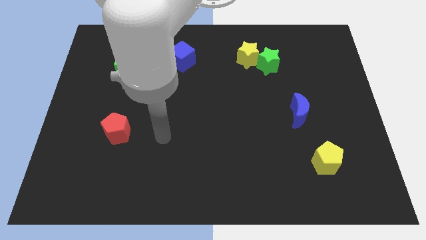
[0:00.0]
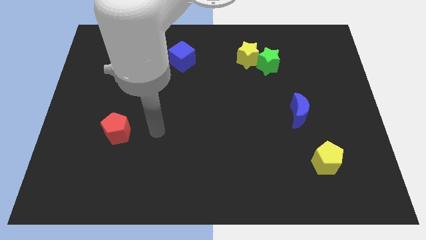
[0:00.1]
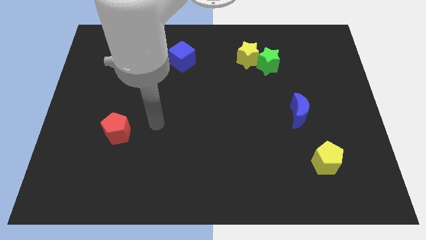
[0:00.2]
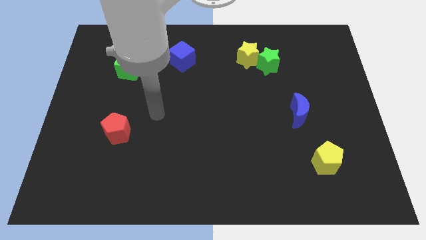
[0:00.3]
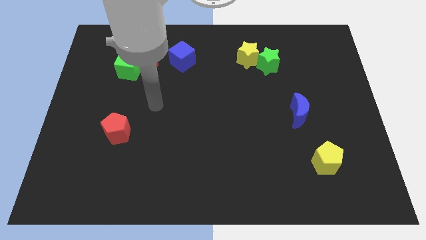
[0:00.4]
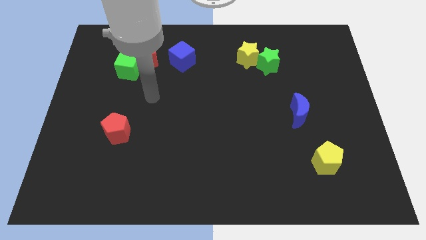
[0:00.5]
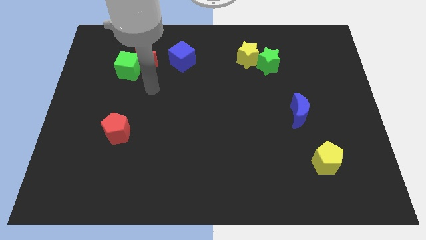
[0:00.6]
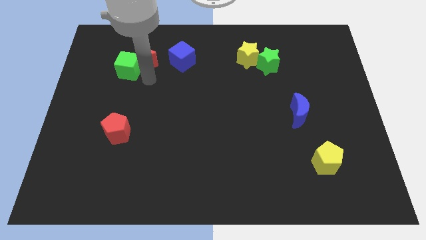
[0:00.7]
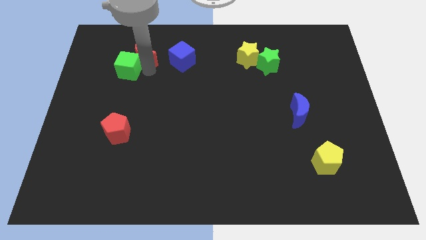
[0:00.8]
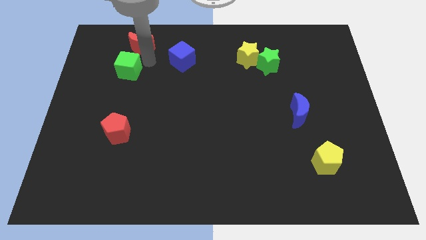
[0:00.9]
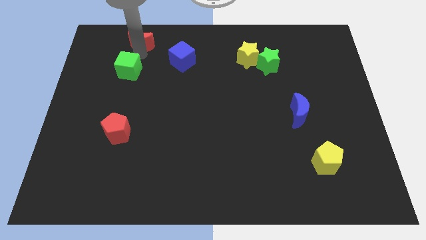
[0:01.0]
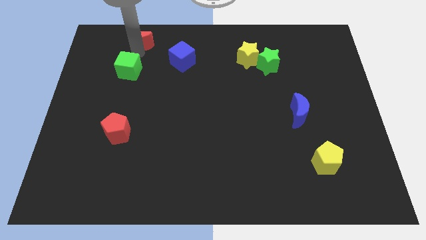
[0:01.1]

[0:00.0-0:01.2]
separate the green cube from the red moon

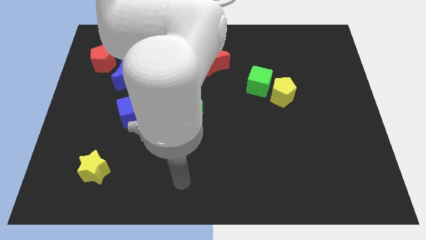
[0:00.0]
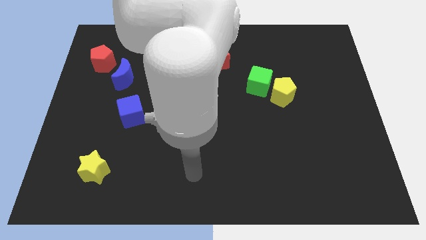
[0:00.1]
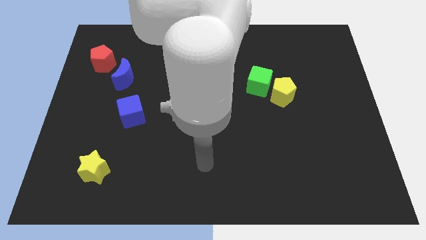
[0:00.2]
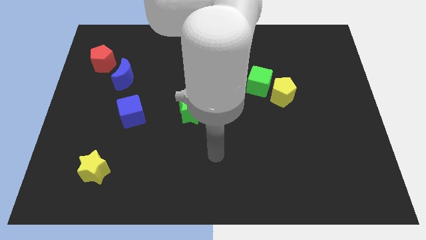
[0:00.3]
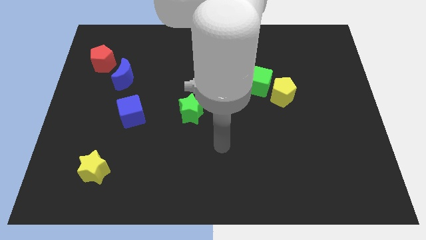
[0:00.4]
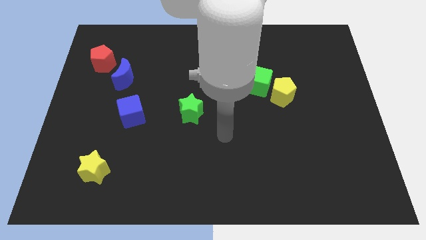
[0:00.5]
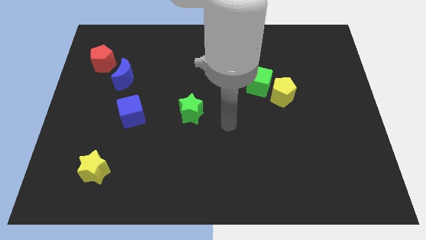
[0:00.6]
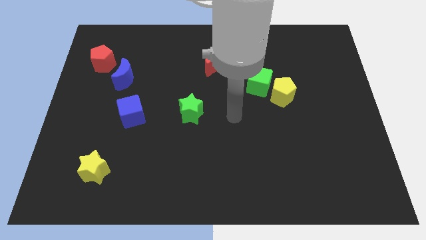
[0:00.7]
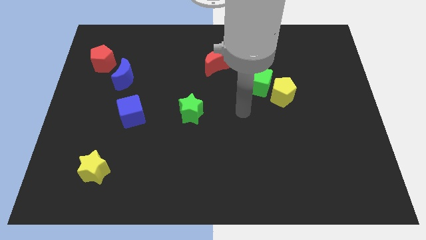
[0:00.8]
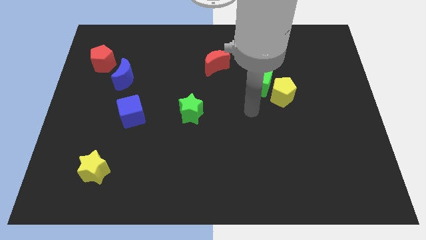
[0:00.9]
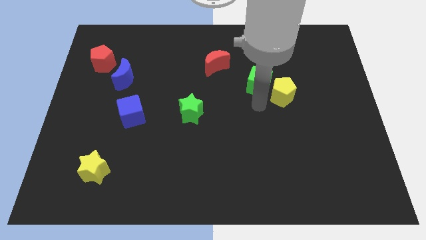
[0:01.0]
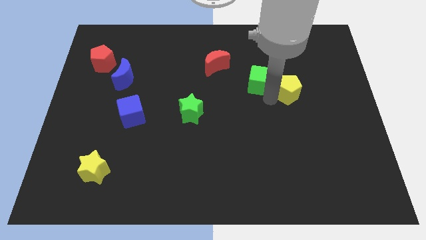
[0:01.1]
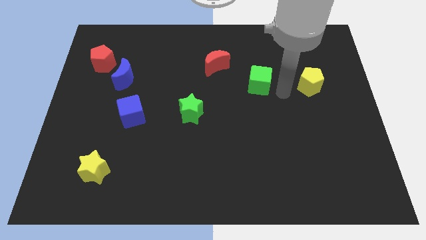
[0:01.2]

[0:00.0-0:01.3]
separate the green cube from the yellow pentagon

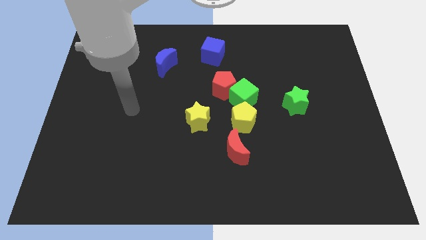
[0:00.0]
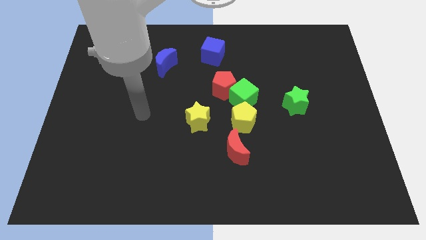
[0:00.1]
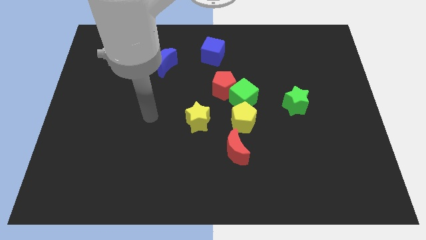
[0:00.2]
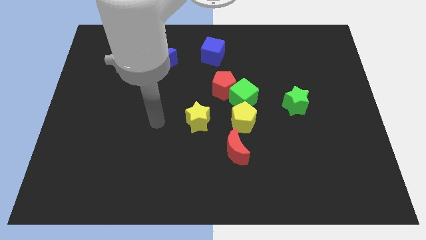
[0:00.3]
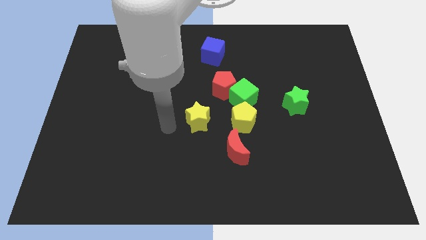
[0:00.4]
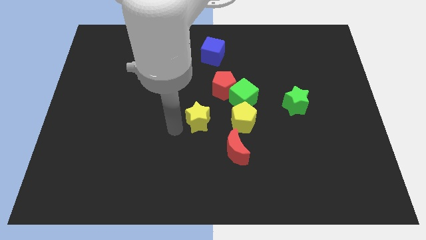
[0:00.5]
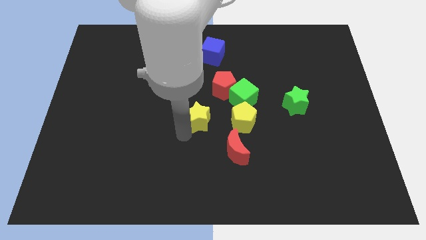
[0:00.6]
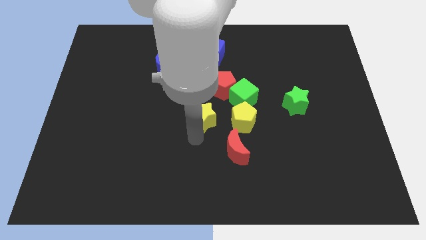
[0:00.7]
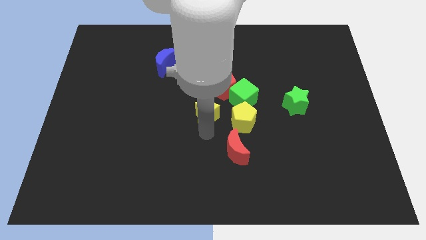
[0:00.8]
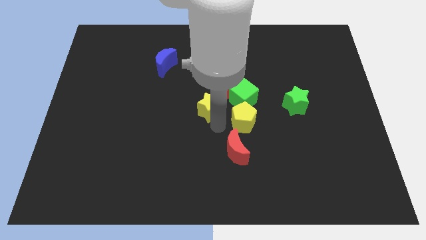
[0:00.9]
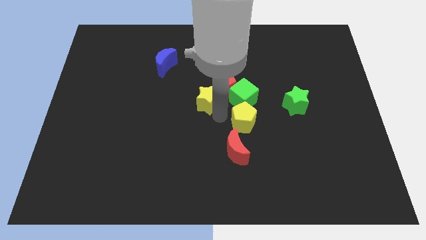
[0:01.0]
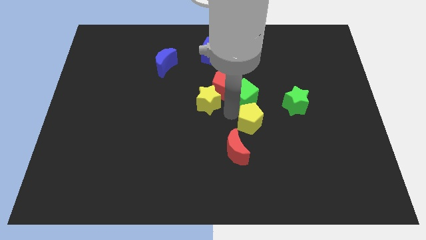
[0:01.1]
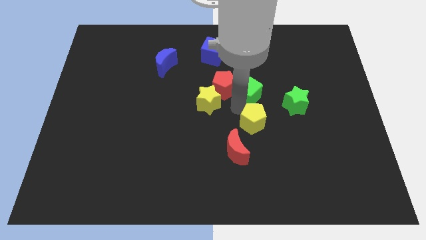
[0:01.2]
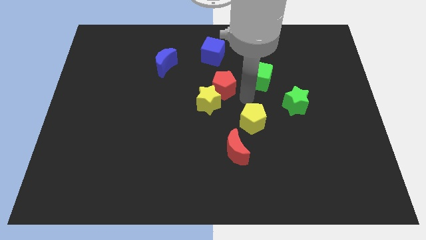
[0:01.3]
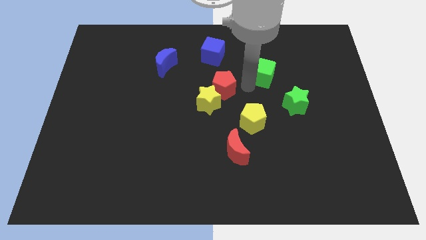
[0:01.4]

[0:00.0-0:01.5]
move the red pentagon away from the green cube

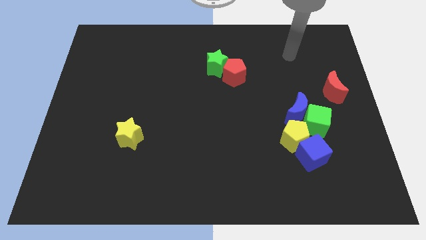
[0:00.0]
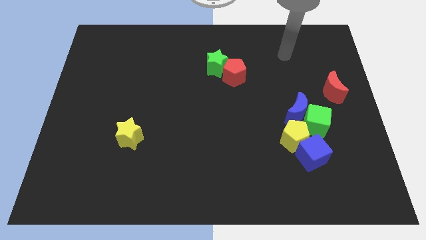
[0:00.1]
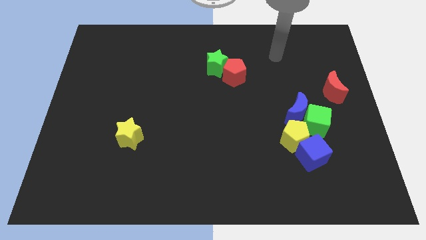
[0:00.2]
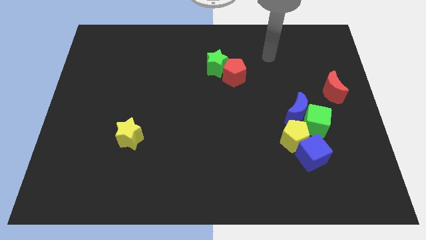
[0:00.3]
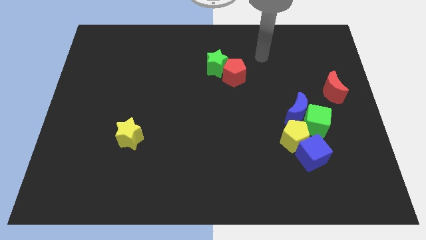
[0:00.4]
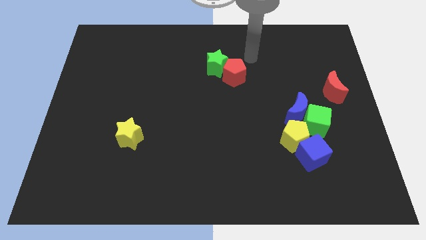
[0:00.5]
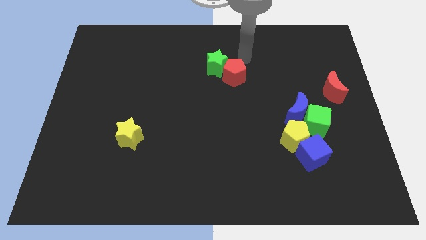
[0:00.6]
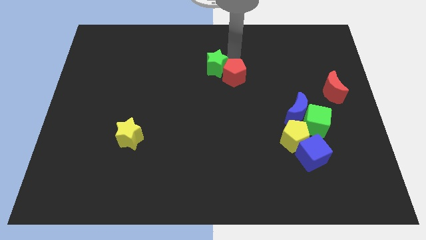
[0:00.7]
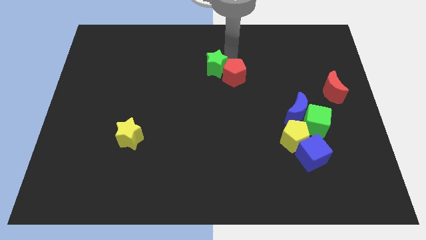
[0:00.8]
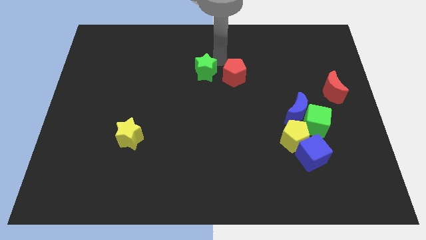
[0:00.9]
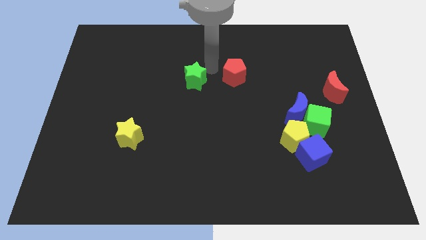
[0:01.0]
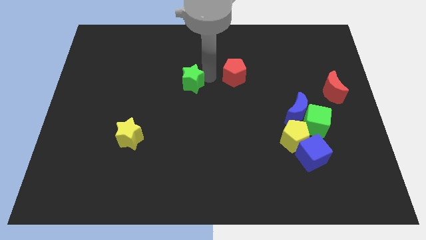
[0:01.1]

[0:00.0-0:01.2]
separate the red pentagon from the green star

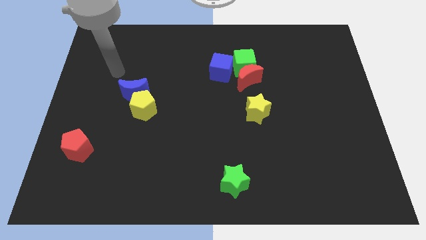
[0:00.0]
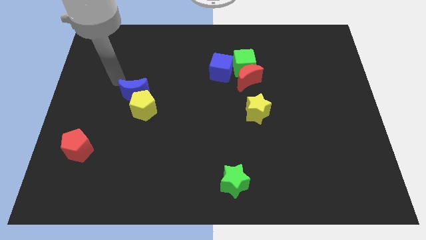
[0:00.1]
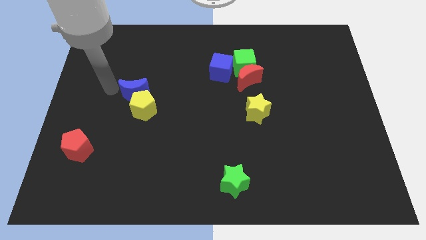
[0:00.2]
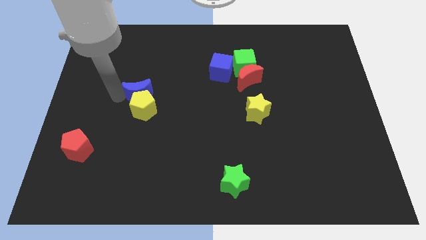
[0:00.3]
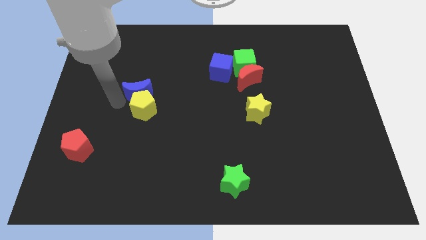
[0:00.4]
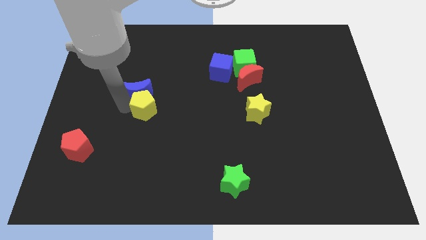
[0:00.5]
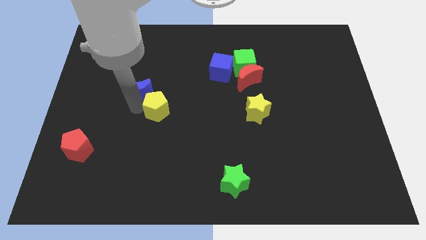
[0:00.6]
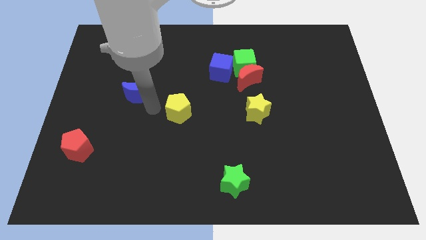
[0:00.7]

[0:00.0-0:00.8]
separate the blue moon from the yellow pentagon

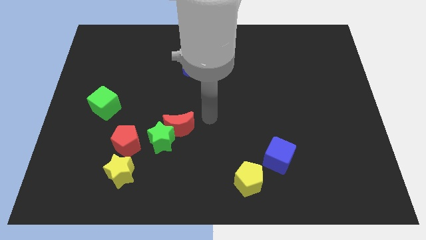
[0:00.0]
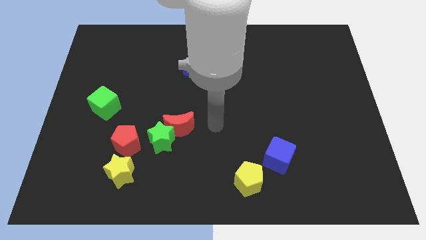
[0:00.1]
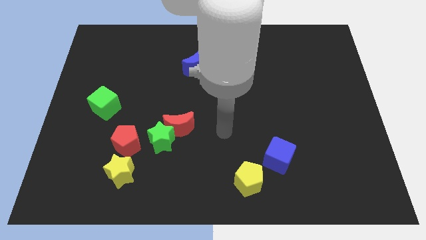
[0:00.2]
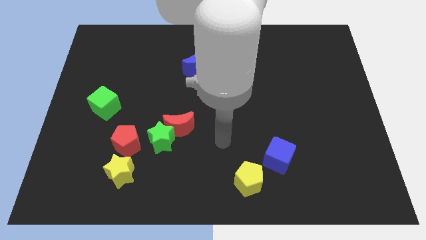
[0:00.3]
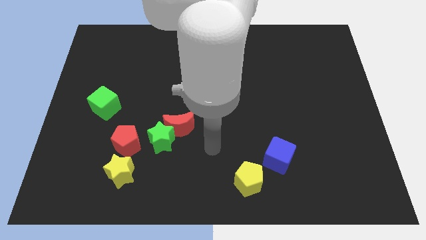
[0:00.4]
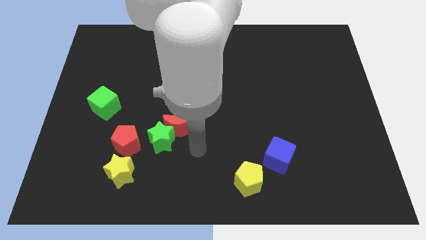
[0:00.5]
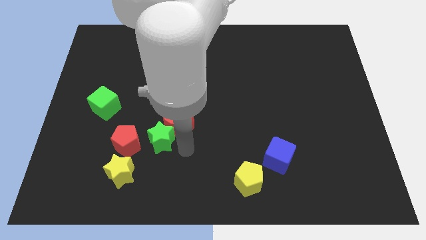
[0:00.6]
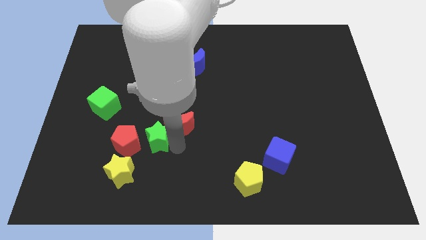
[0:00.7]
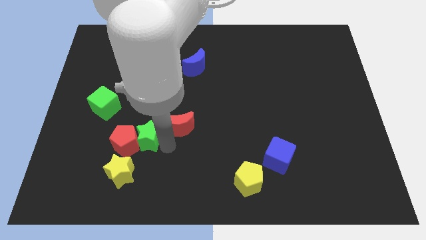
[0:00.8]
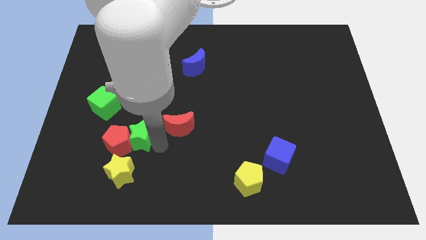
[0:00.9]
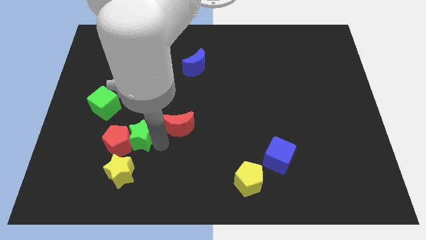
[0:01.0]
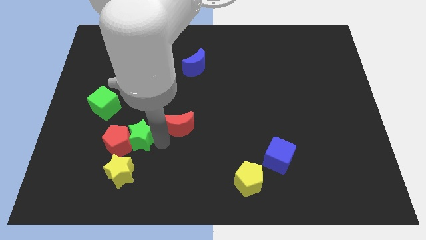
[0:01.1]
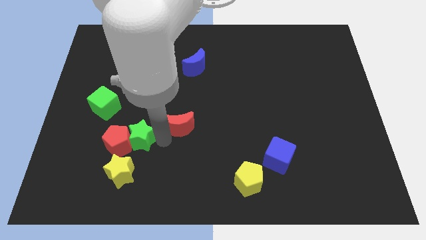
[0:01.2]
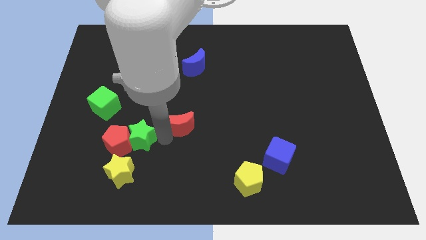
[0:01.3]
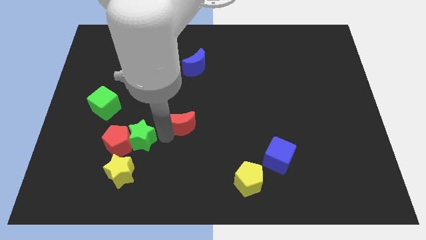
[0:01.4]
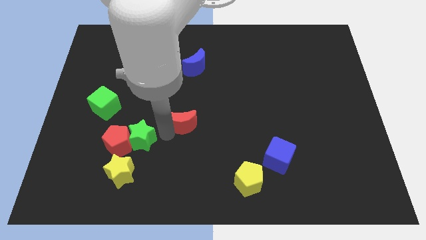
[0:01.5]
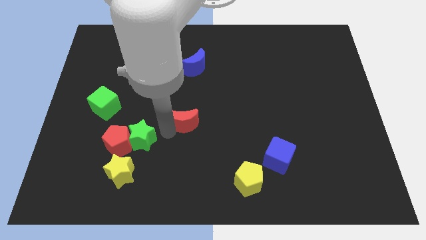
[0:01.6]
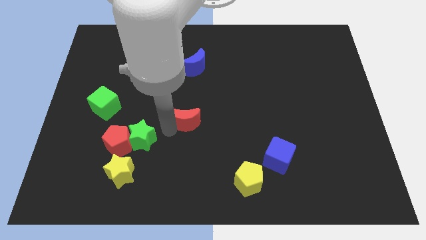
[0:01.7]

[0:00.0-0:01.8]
move the red moon away from the green star

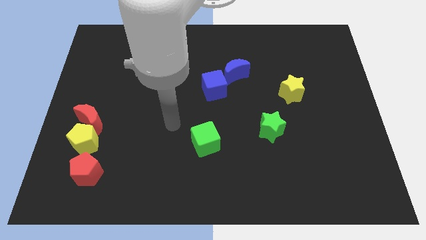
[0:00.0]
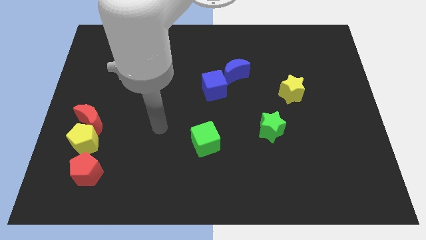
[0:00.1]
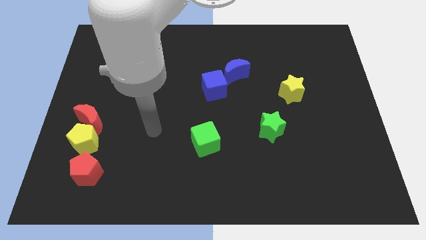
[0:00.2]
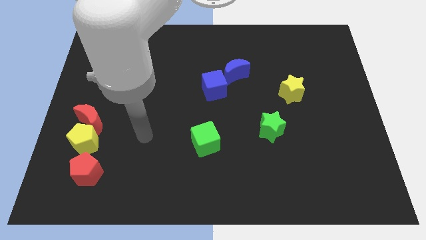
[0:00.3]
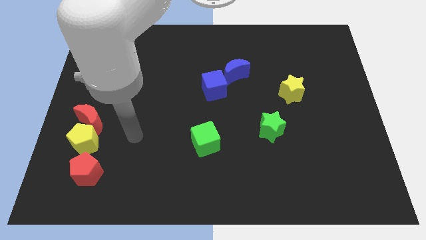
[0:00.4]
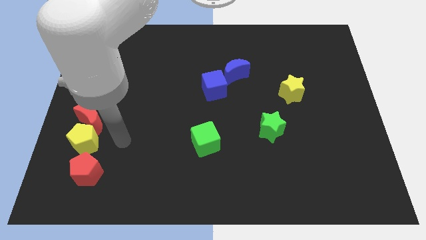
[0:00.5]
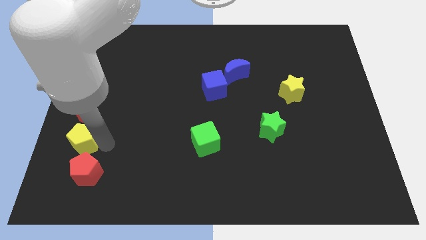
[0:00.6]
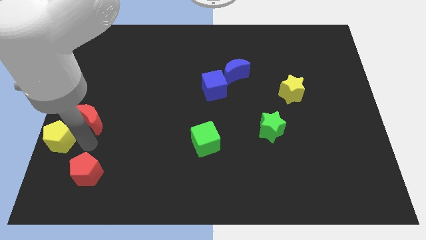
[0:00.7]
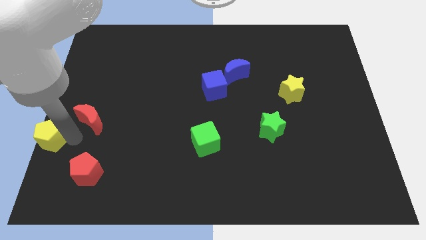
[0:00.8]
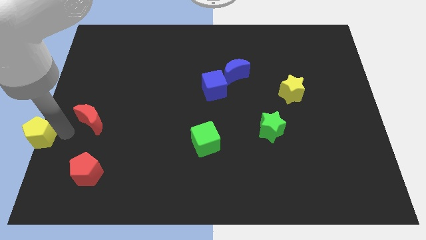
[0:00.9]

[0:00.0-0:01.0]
separate the red moon from the yellow pentagon

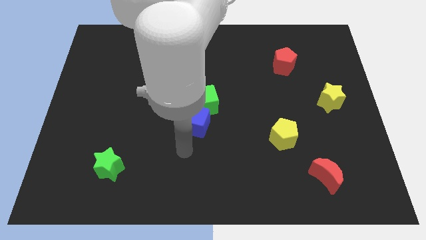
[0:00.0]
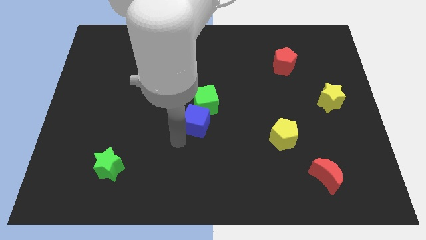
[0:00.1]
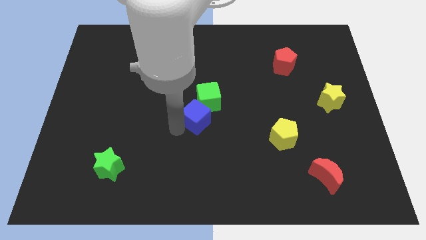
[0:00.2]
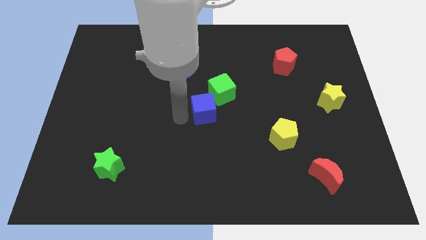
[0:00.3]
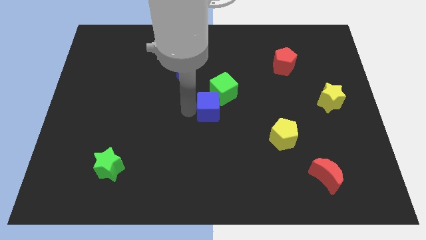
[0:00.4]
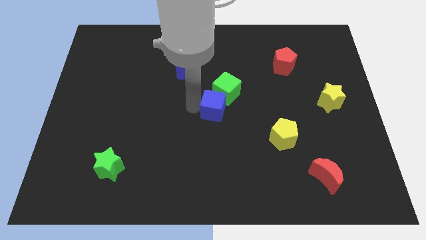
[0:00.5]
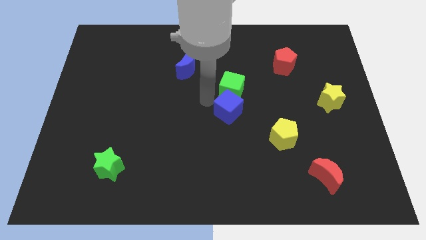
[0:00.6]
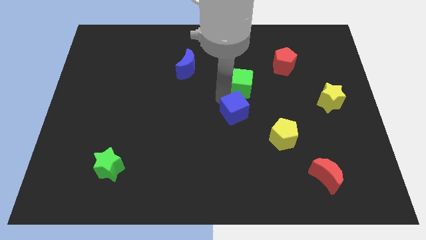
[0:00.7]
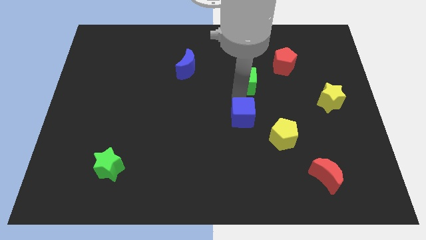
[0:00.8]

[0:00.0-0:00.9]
separate the blue cube from the green cube
